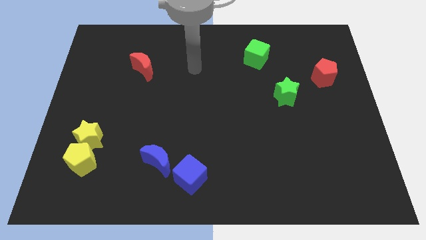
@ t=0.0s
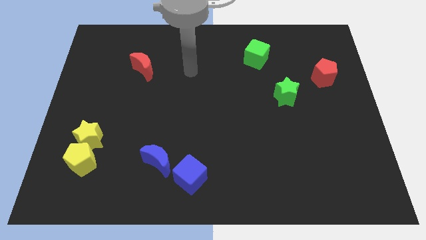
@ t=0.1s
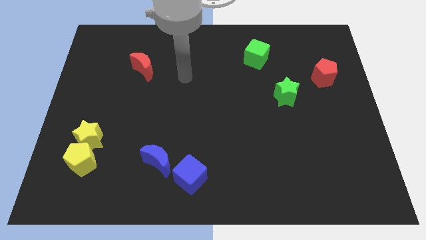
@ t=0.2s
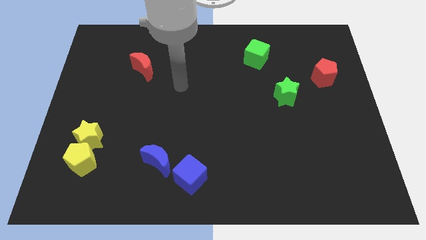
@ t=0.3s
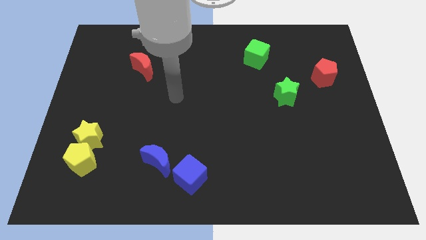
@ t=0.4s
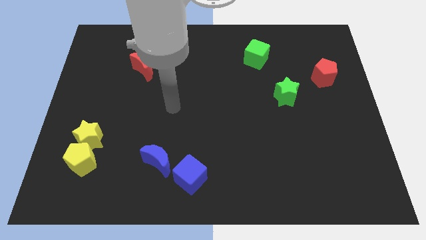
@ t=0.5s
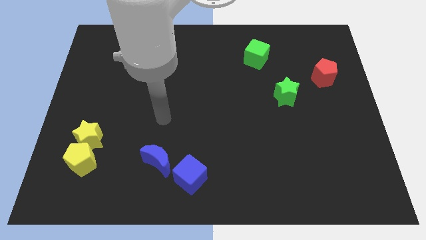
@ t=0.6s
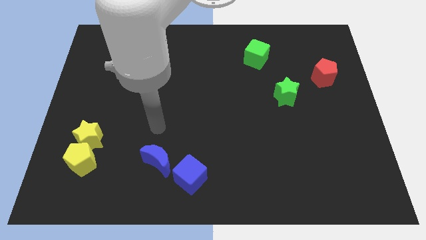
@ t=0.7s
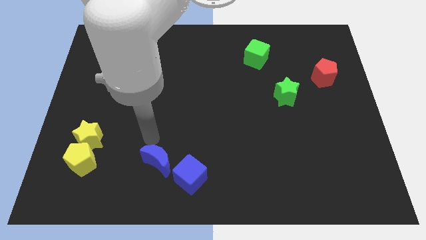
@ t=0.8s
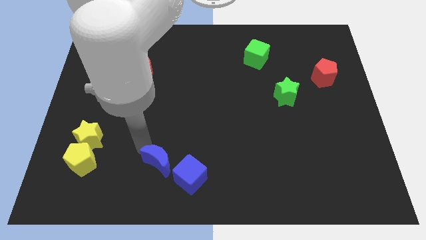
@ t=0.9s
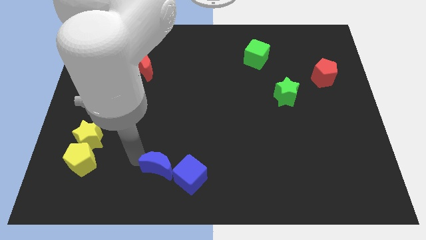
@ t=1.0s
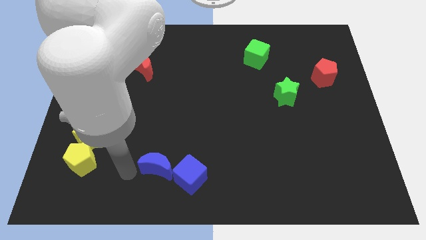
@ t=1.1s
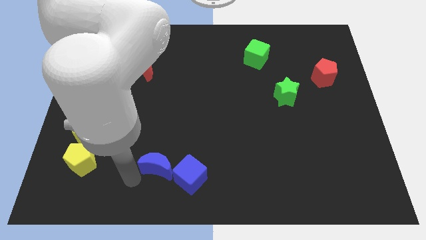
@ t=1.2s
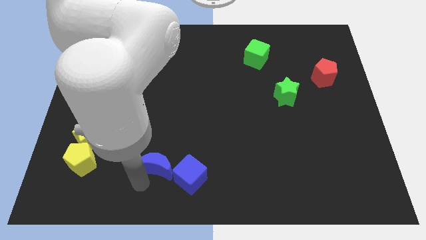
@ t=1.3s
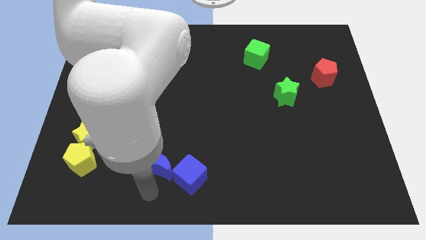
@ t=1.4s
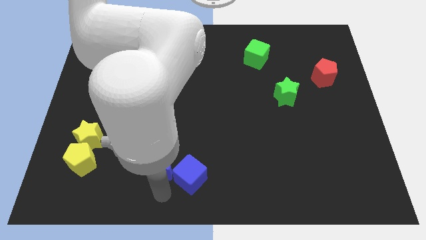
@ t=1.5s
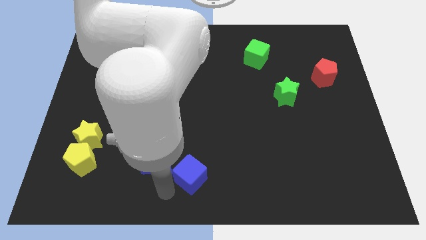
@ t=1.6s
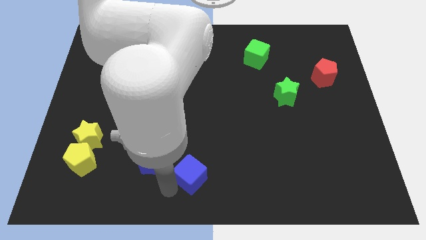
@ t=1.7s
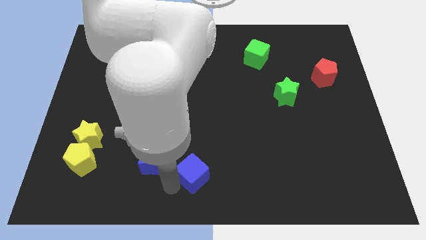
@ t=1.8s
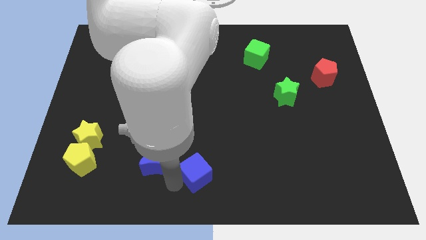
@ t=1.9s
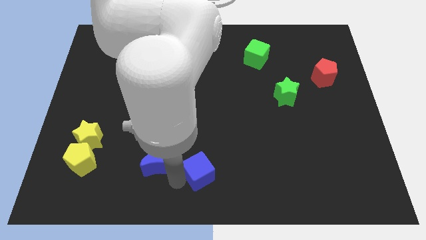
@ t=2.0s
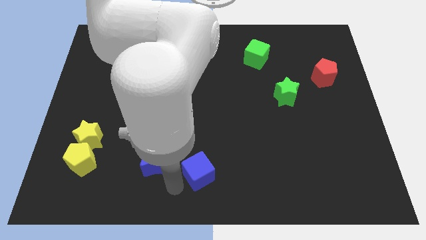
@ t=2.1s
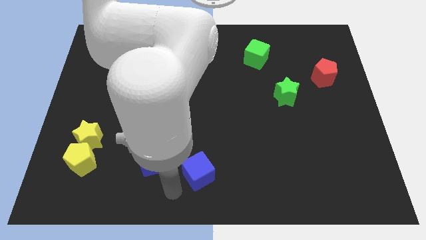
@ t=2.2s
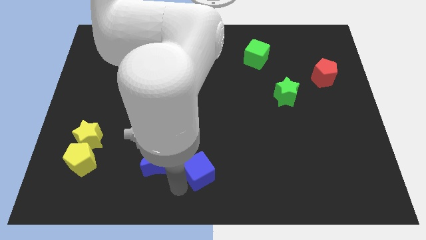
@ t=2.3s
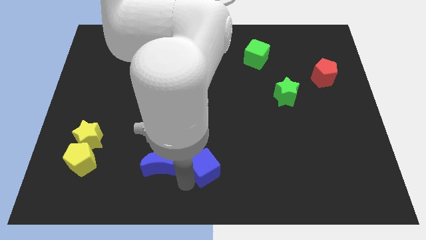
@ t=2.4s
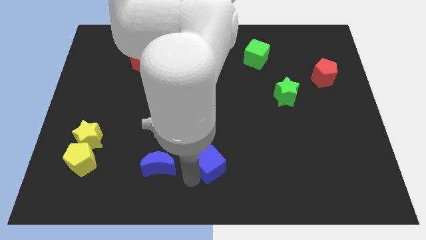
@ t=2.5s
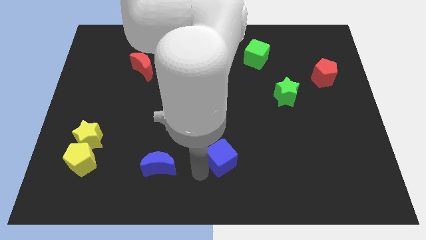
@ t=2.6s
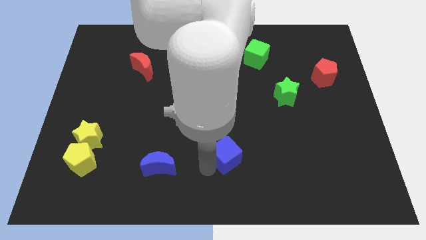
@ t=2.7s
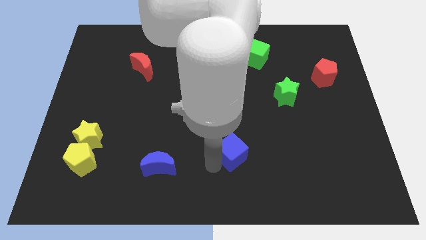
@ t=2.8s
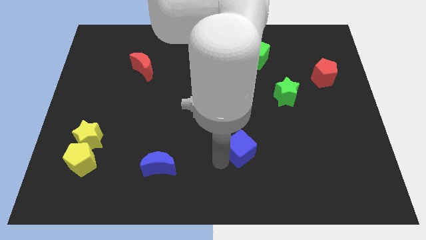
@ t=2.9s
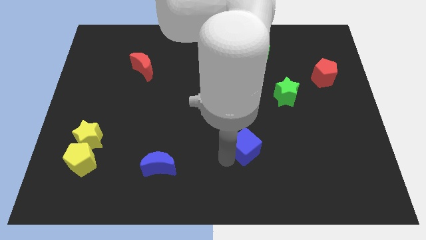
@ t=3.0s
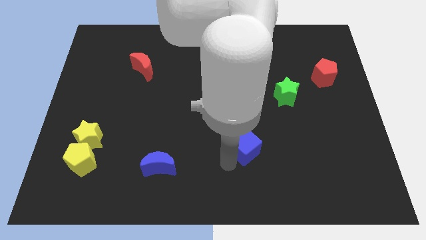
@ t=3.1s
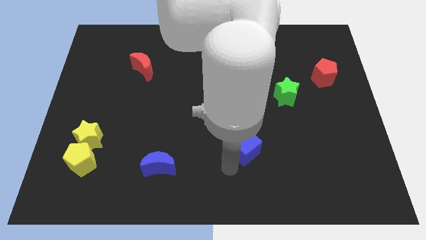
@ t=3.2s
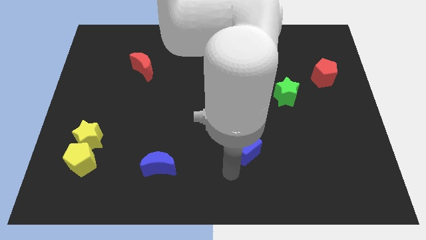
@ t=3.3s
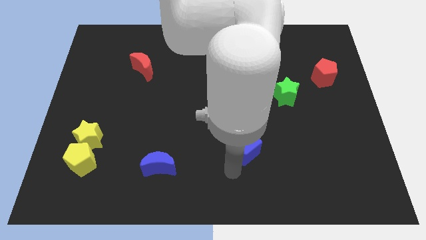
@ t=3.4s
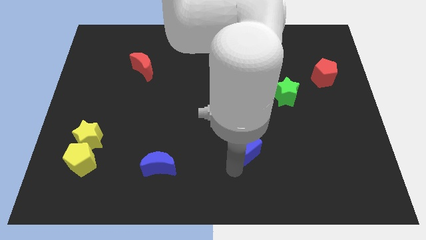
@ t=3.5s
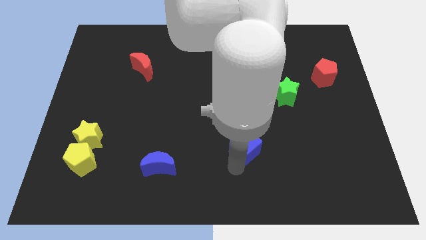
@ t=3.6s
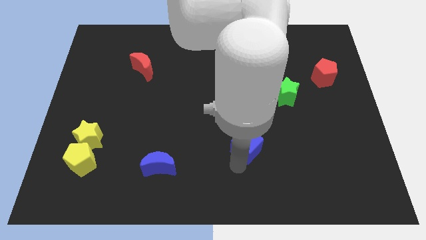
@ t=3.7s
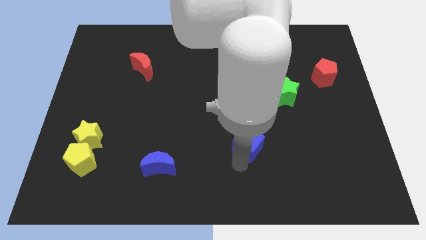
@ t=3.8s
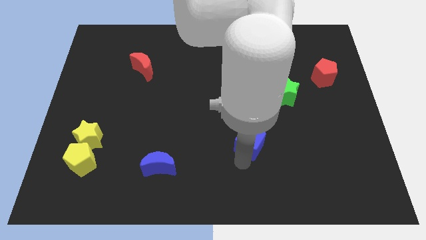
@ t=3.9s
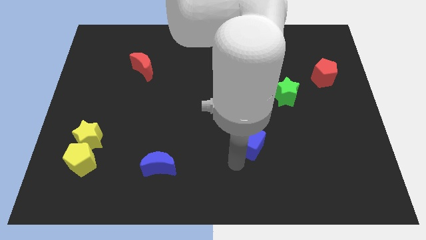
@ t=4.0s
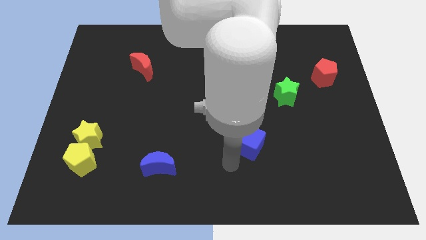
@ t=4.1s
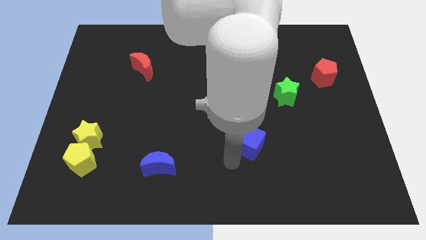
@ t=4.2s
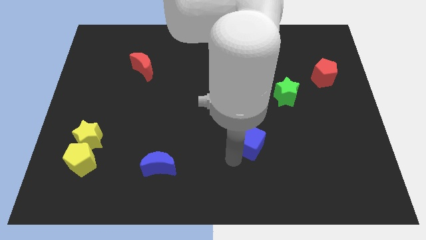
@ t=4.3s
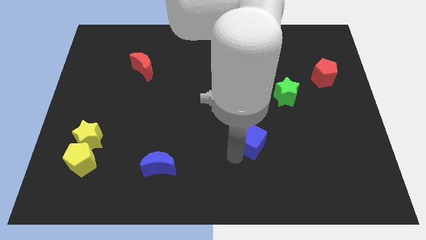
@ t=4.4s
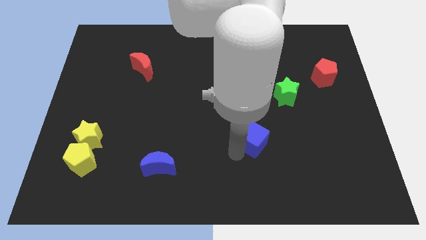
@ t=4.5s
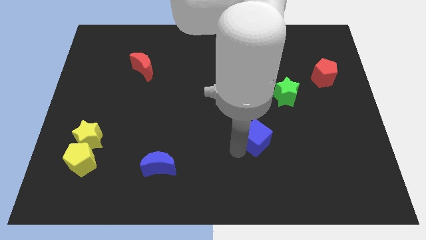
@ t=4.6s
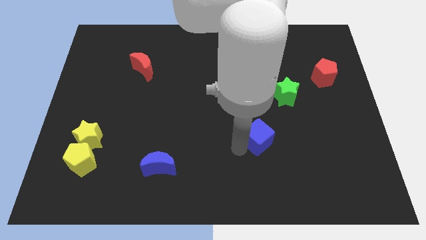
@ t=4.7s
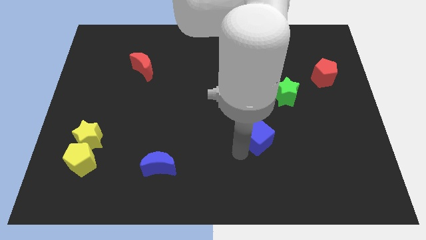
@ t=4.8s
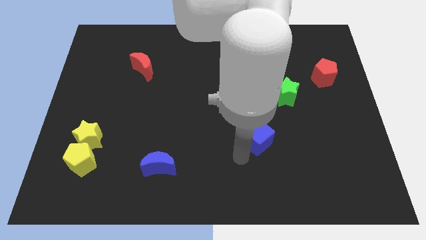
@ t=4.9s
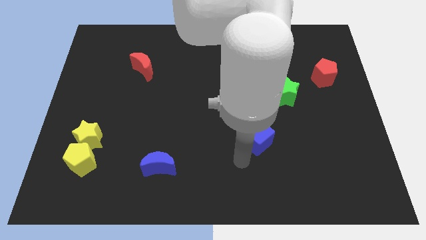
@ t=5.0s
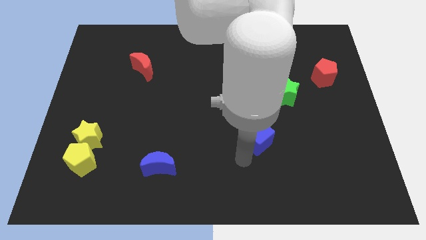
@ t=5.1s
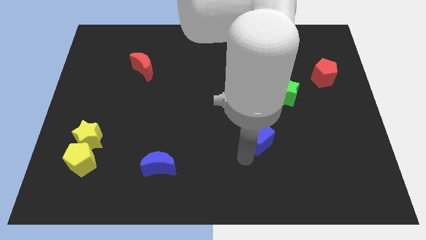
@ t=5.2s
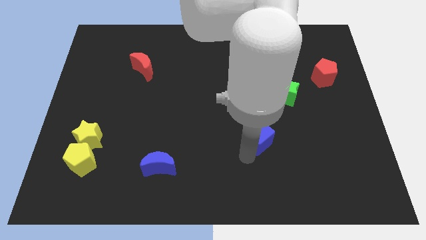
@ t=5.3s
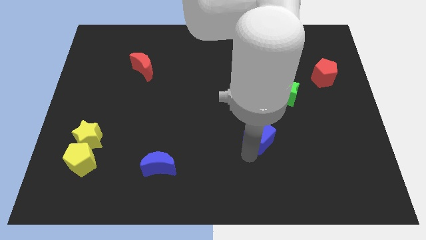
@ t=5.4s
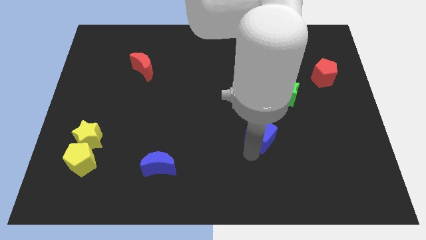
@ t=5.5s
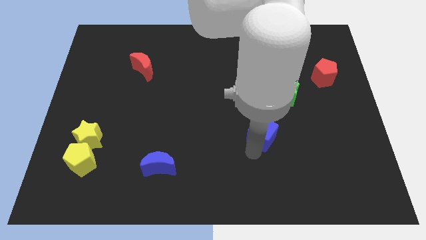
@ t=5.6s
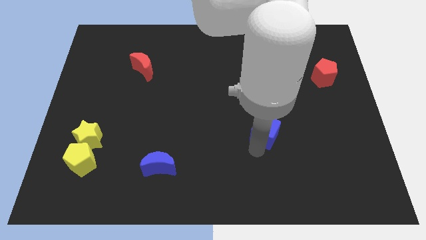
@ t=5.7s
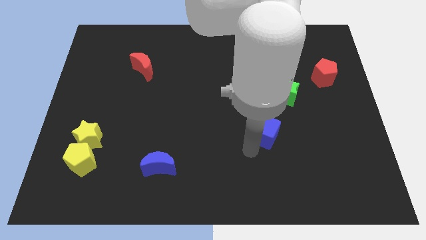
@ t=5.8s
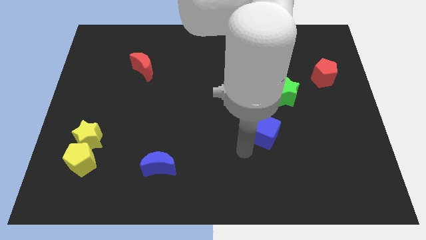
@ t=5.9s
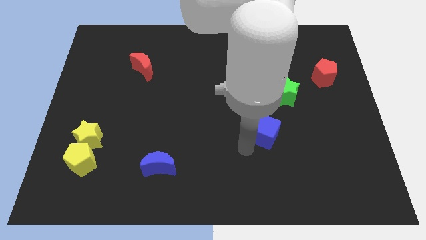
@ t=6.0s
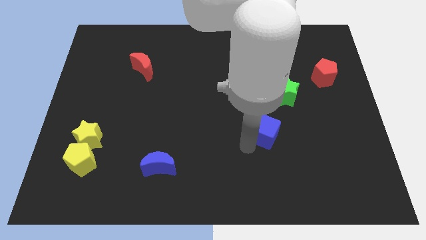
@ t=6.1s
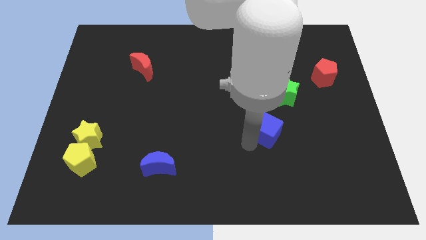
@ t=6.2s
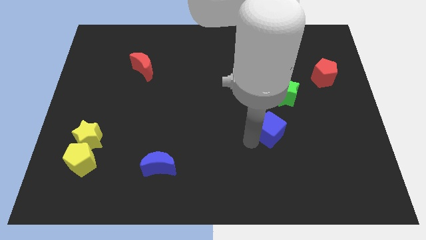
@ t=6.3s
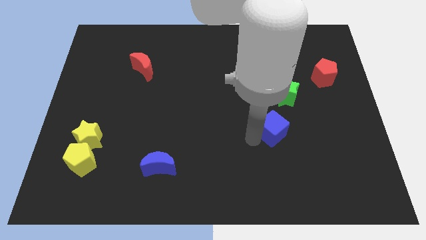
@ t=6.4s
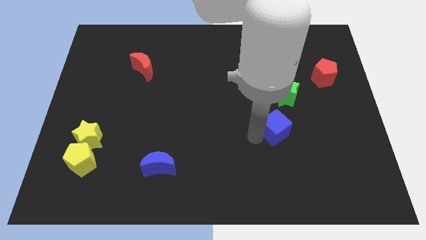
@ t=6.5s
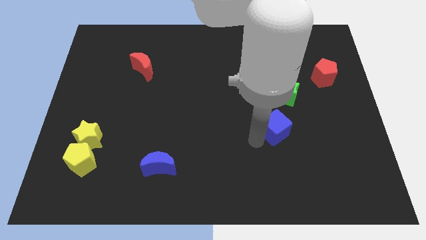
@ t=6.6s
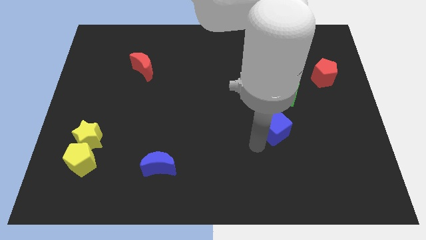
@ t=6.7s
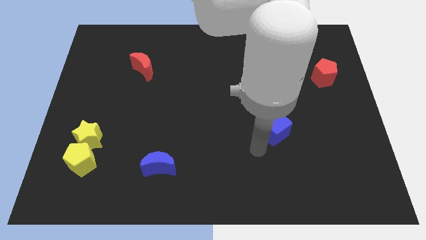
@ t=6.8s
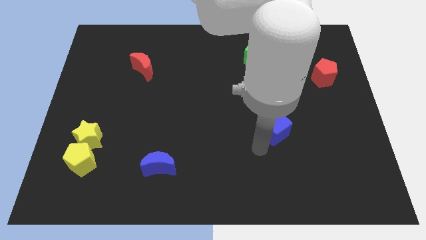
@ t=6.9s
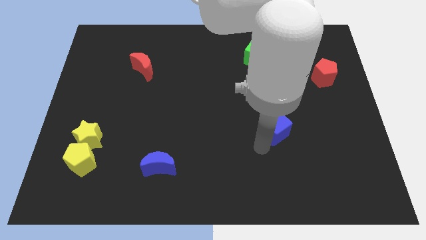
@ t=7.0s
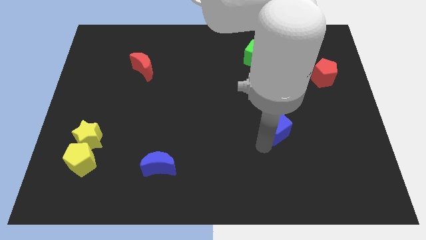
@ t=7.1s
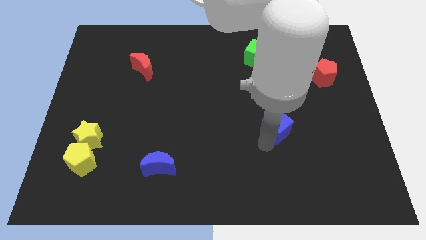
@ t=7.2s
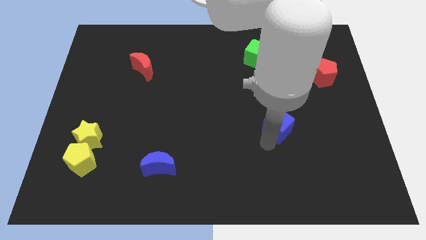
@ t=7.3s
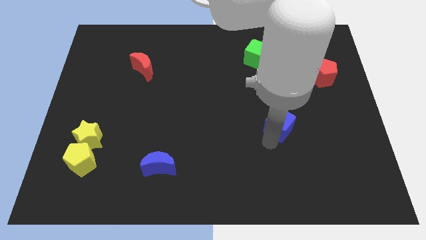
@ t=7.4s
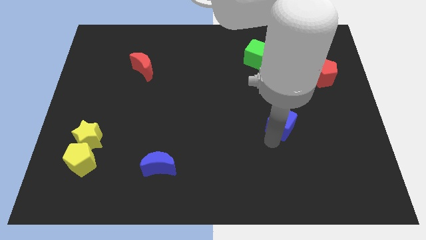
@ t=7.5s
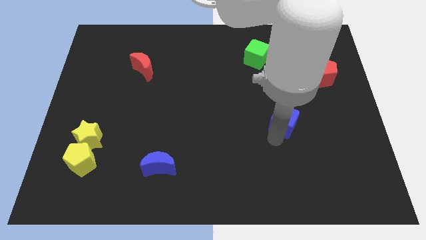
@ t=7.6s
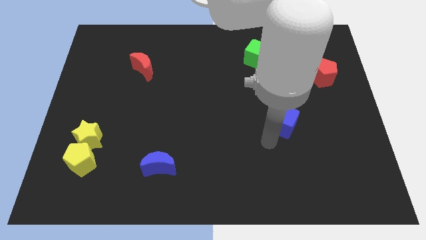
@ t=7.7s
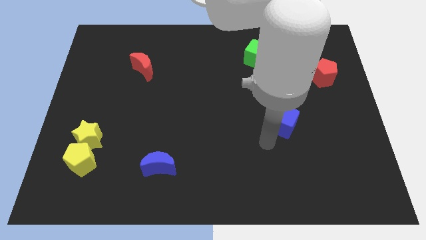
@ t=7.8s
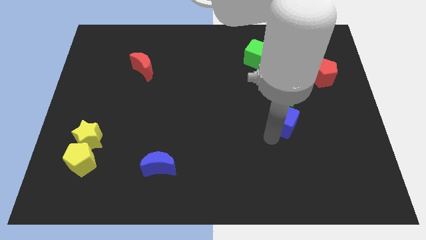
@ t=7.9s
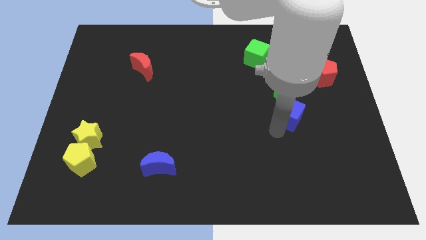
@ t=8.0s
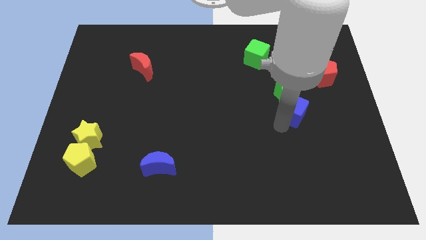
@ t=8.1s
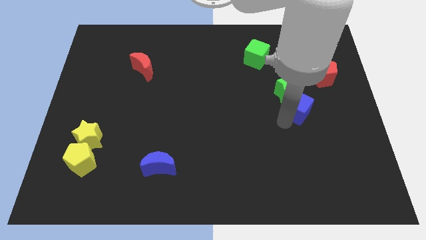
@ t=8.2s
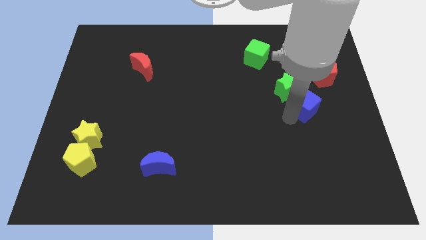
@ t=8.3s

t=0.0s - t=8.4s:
put the blue cube to the bottom left of the red pentagon
